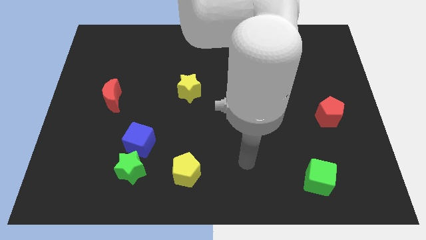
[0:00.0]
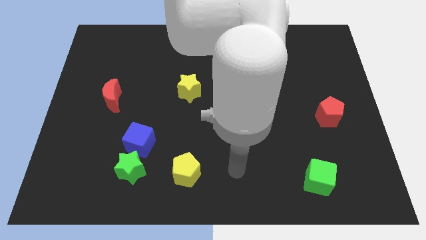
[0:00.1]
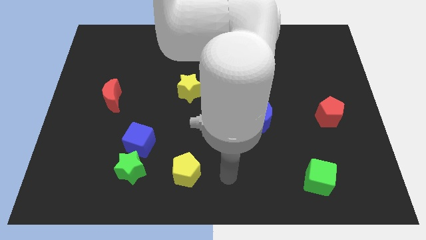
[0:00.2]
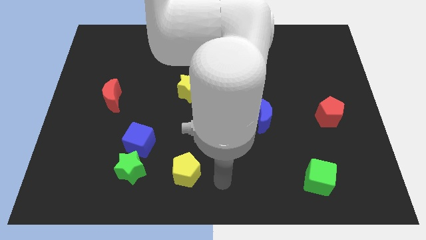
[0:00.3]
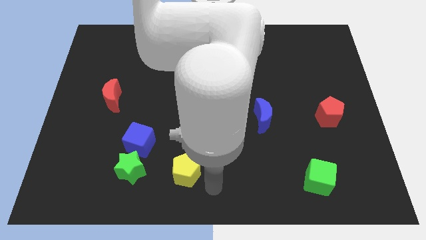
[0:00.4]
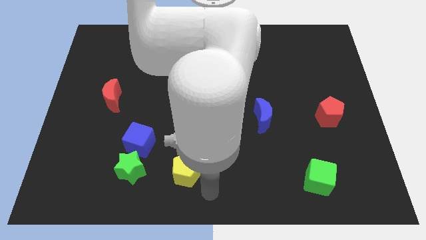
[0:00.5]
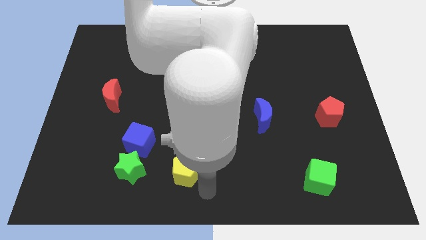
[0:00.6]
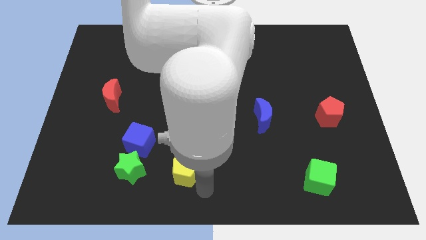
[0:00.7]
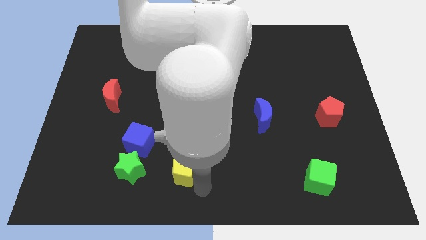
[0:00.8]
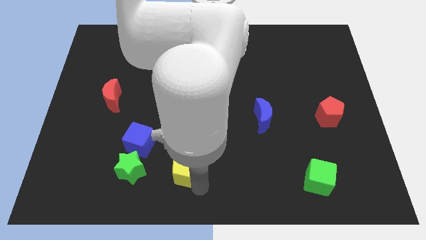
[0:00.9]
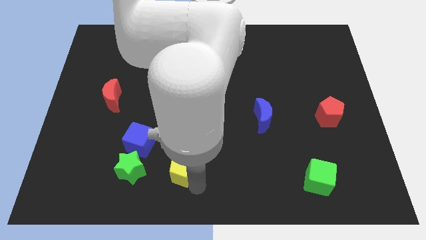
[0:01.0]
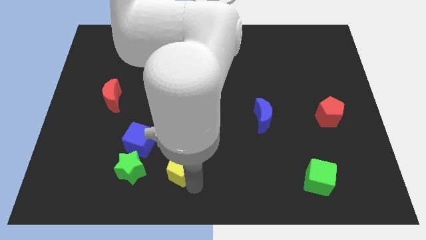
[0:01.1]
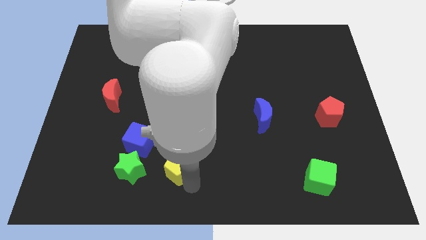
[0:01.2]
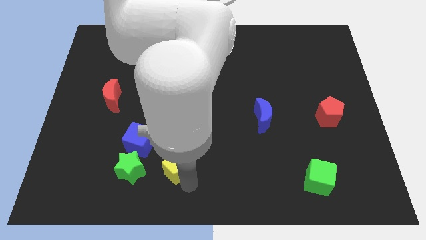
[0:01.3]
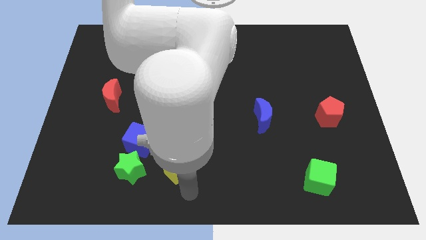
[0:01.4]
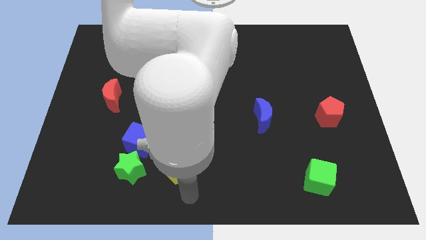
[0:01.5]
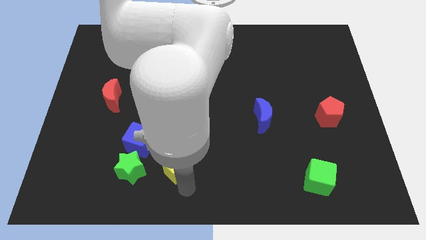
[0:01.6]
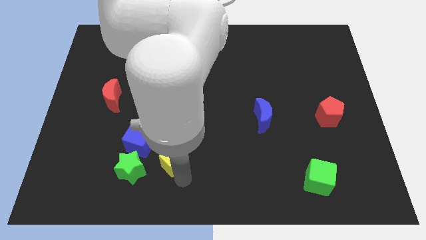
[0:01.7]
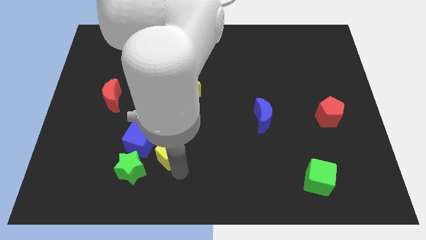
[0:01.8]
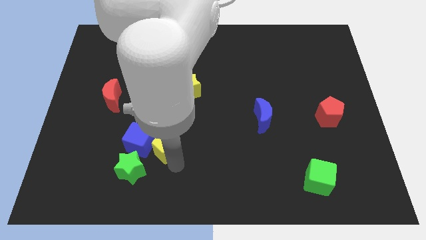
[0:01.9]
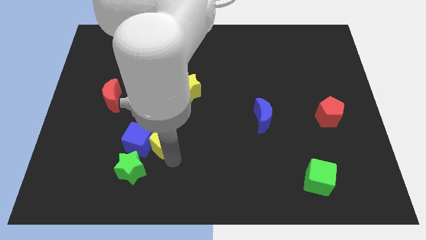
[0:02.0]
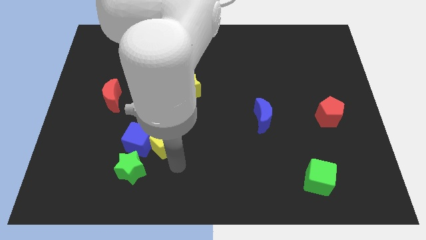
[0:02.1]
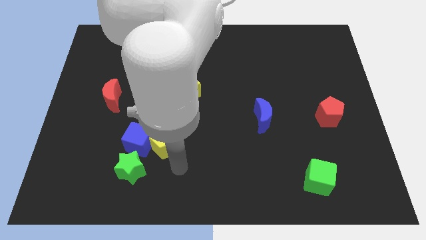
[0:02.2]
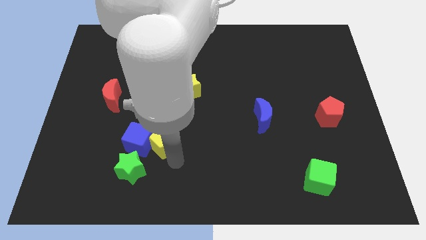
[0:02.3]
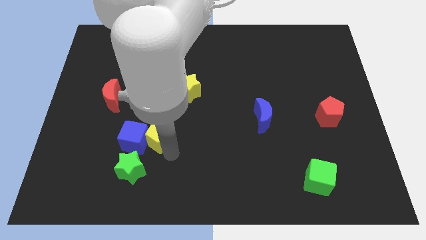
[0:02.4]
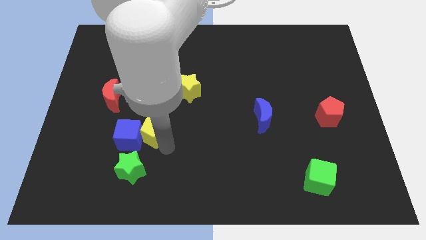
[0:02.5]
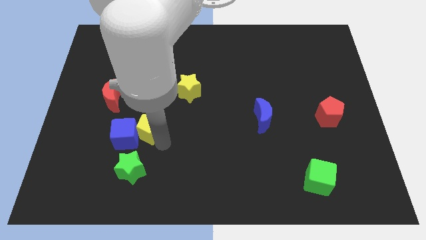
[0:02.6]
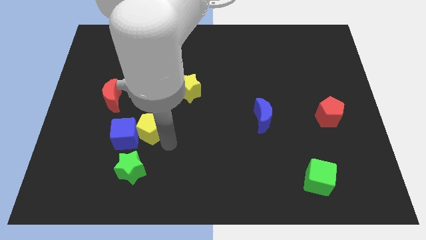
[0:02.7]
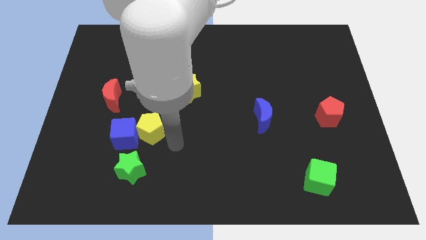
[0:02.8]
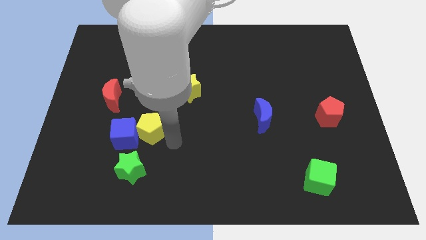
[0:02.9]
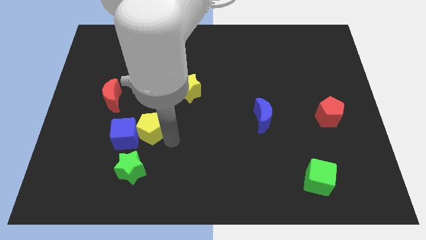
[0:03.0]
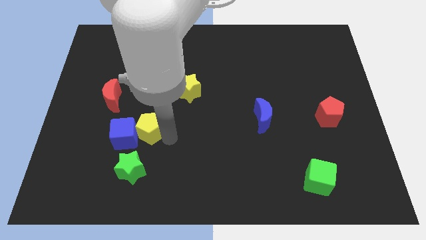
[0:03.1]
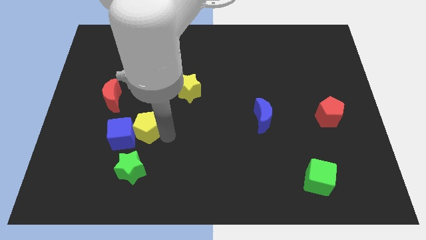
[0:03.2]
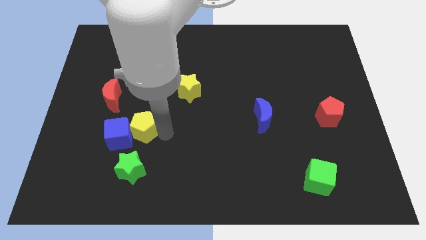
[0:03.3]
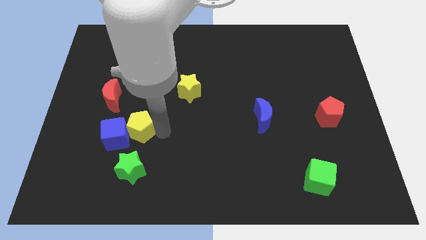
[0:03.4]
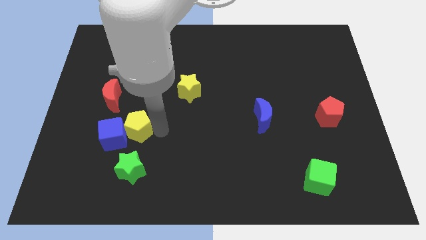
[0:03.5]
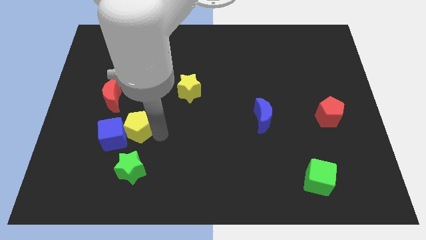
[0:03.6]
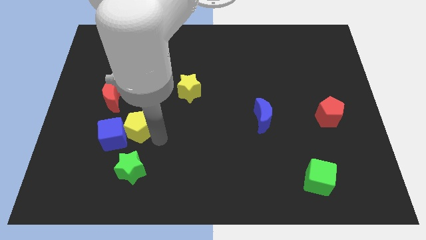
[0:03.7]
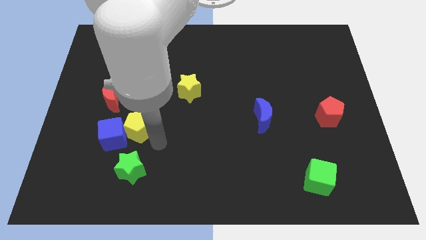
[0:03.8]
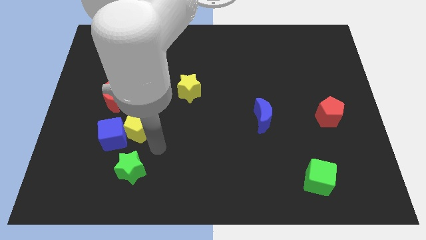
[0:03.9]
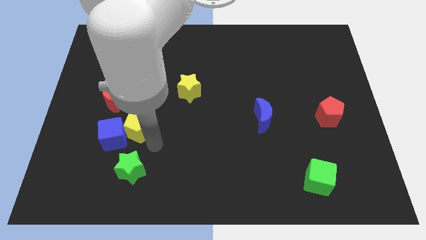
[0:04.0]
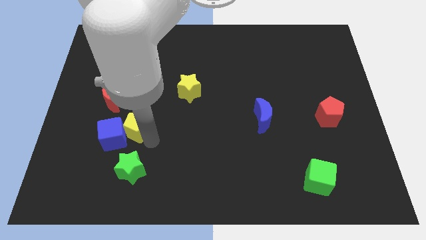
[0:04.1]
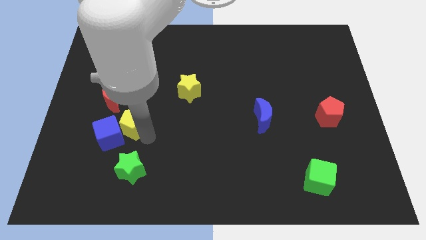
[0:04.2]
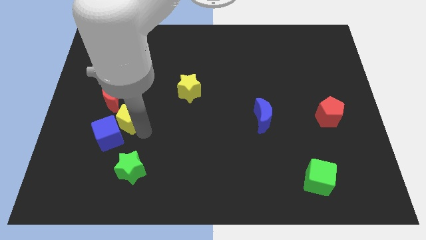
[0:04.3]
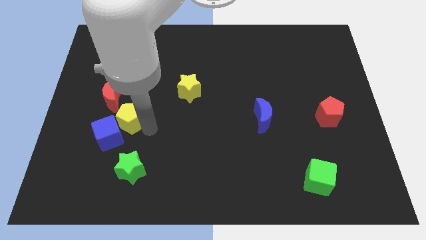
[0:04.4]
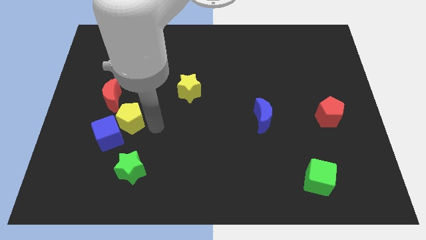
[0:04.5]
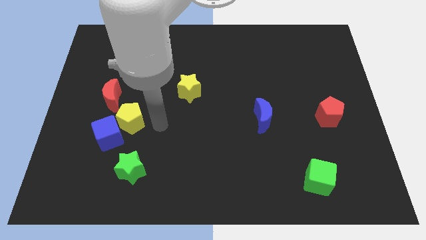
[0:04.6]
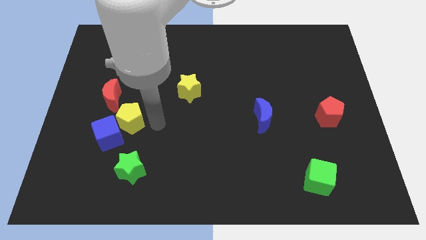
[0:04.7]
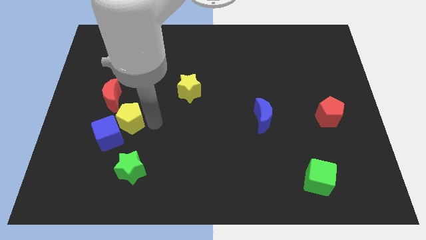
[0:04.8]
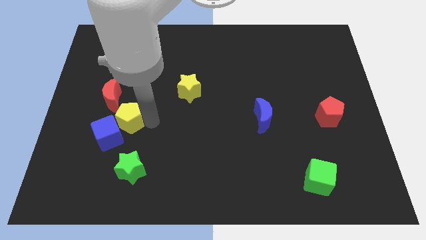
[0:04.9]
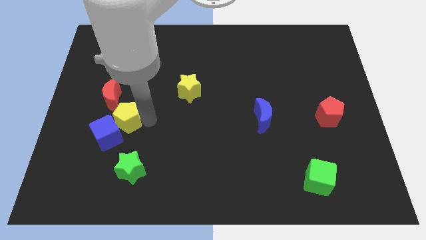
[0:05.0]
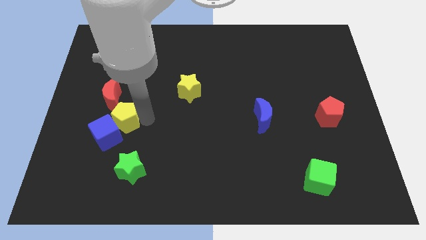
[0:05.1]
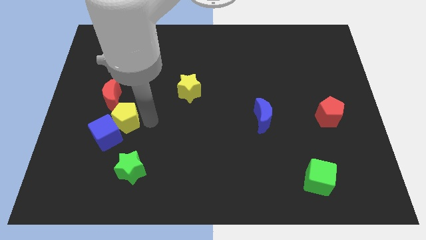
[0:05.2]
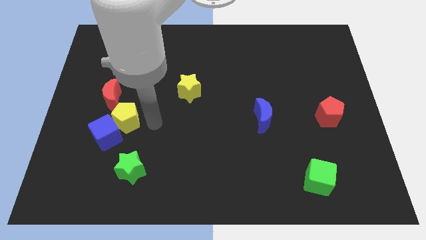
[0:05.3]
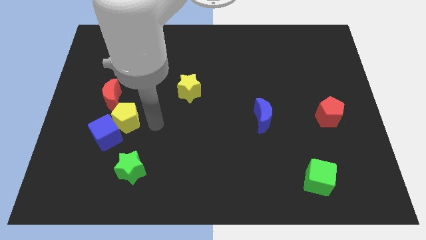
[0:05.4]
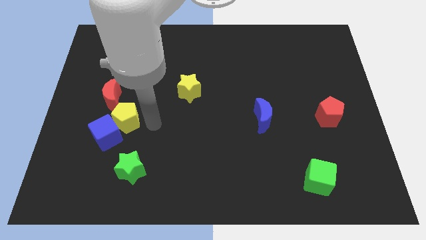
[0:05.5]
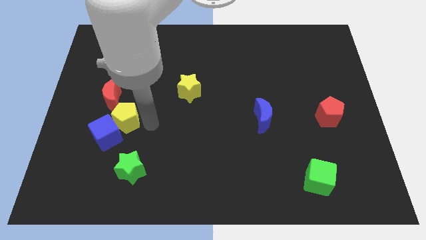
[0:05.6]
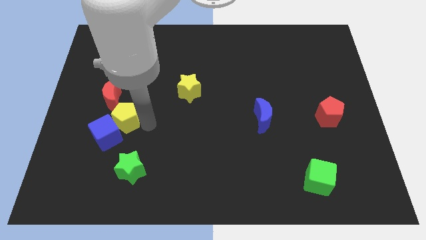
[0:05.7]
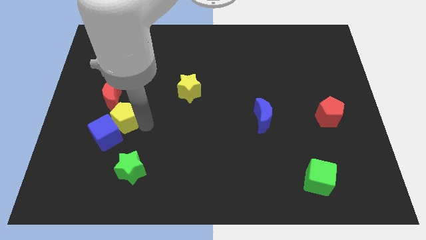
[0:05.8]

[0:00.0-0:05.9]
slide the yellow pentagon diagonally upwards and to the left

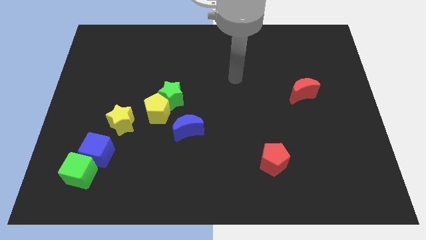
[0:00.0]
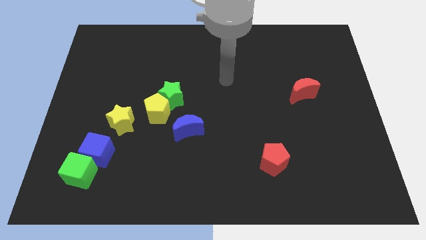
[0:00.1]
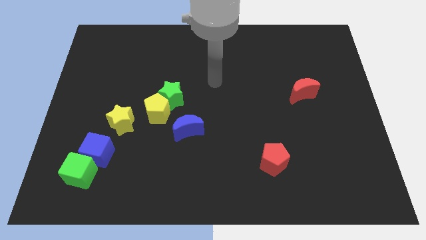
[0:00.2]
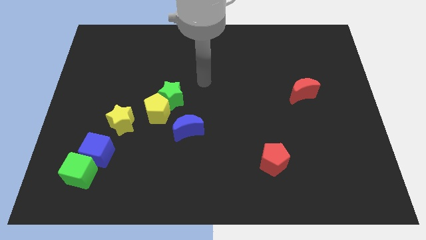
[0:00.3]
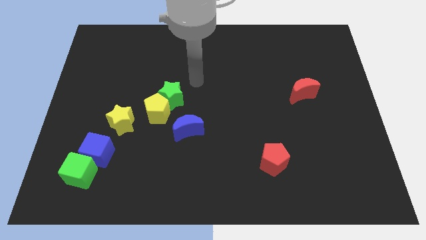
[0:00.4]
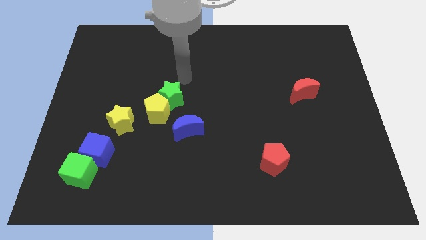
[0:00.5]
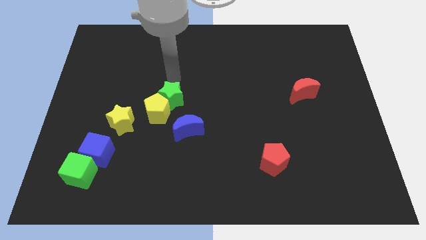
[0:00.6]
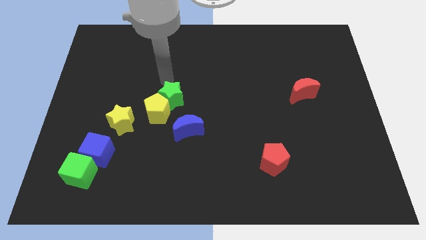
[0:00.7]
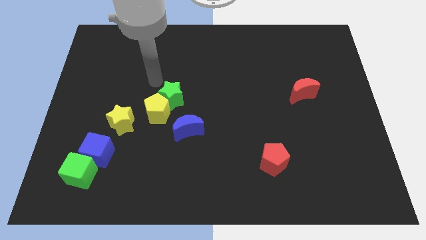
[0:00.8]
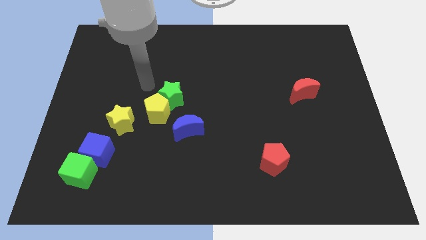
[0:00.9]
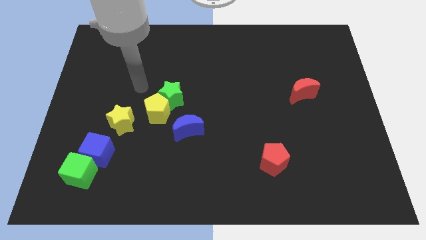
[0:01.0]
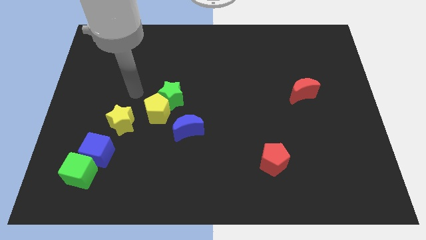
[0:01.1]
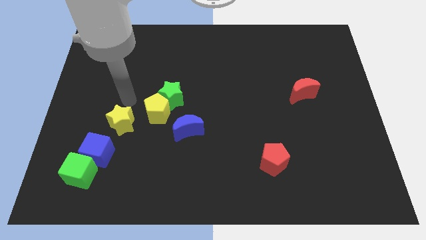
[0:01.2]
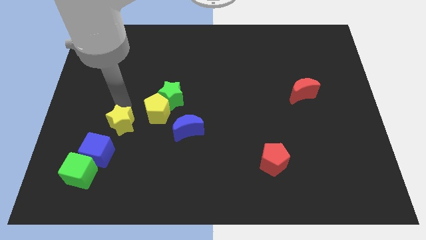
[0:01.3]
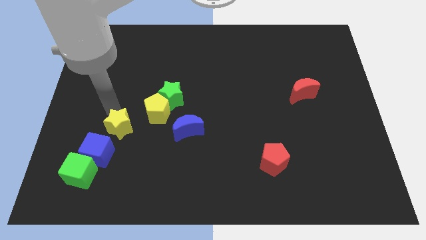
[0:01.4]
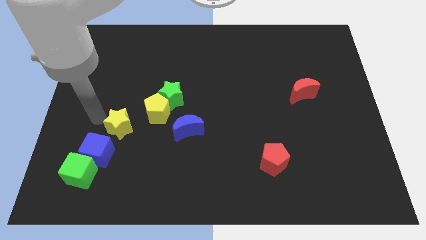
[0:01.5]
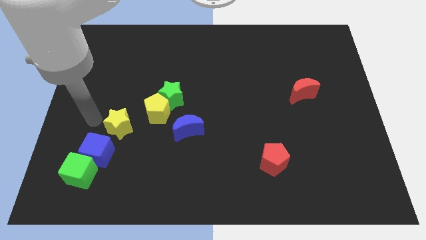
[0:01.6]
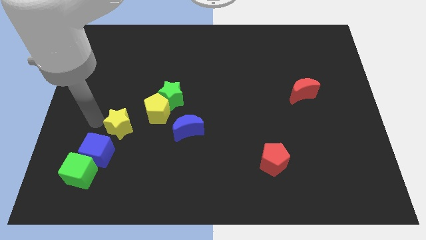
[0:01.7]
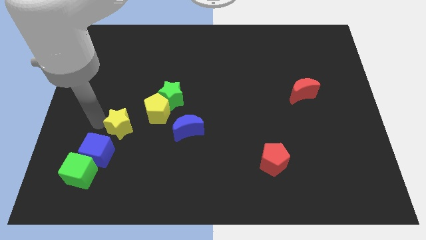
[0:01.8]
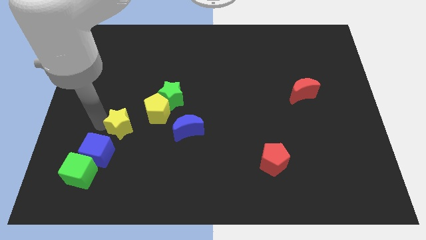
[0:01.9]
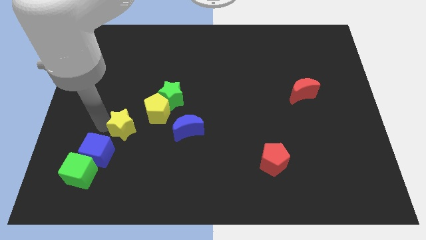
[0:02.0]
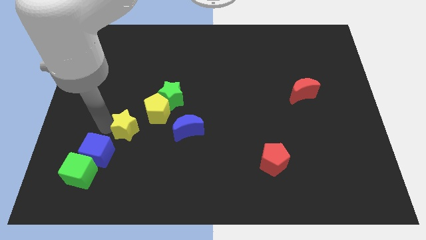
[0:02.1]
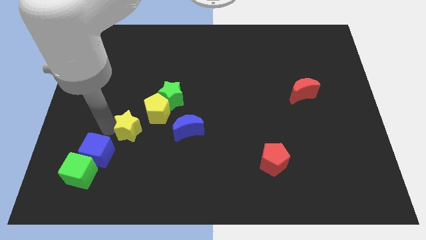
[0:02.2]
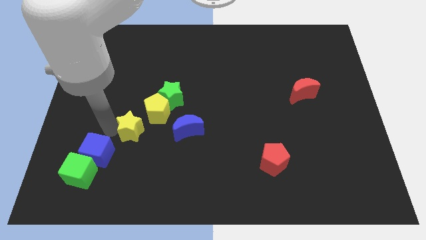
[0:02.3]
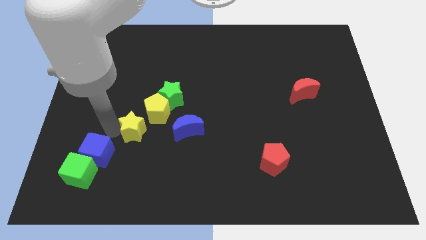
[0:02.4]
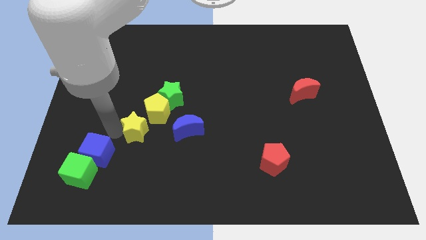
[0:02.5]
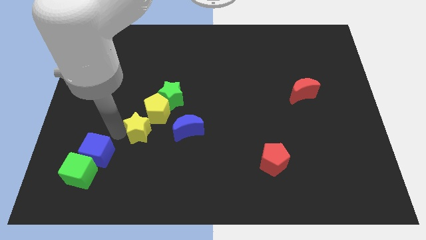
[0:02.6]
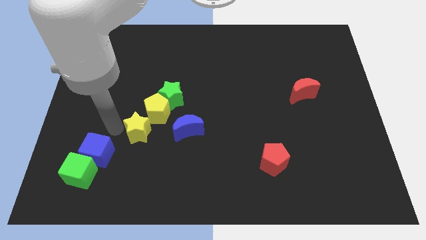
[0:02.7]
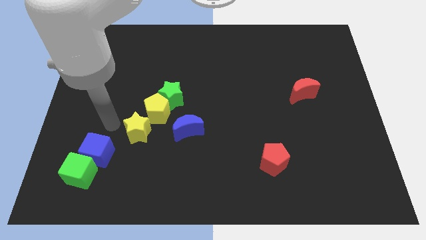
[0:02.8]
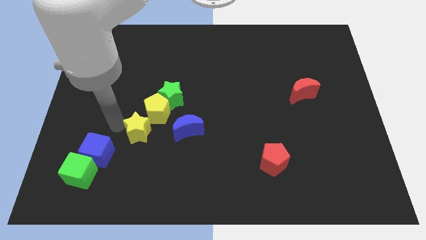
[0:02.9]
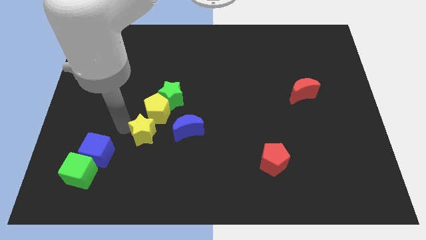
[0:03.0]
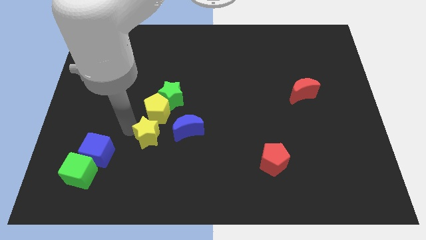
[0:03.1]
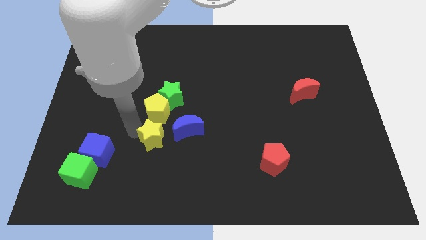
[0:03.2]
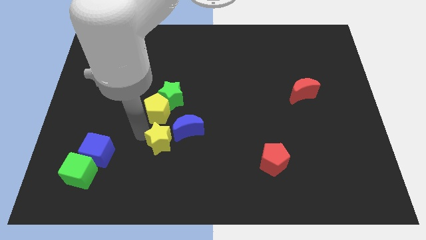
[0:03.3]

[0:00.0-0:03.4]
slightly push the yellow star right
